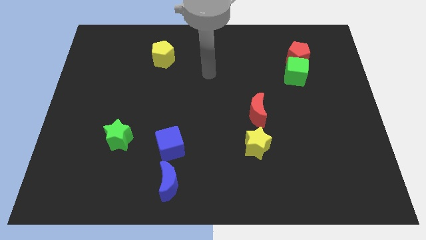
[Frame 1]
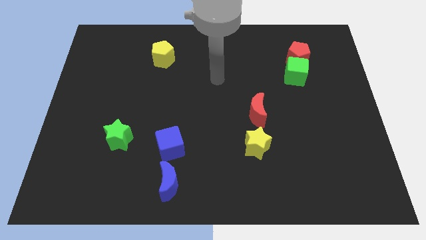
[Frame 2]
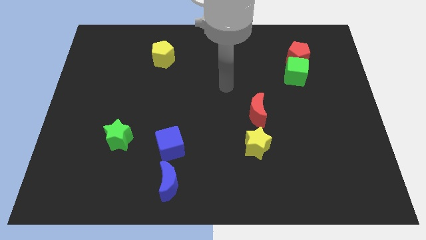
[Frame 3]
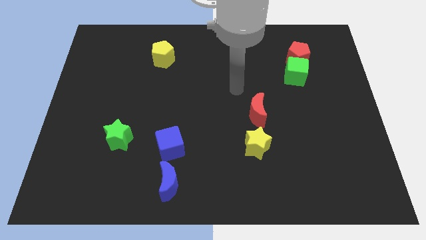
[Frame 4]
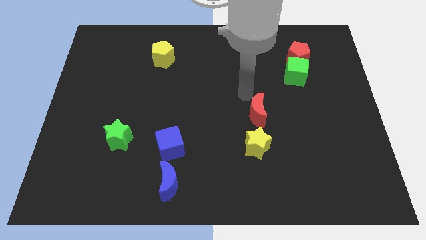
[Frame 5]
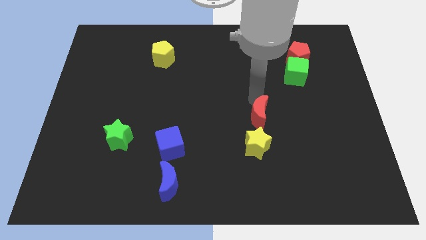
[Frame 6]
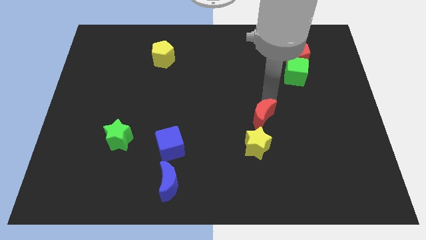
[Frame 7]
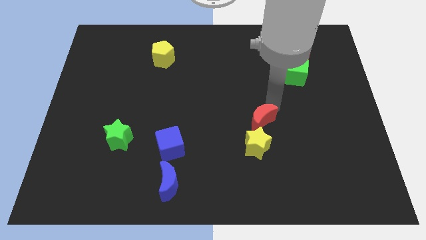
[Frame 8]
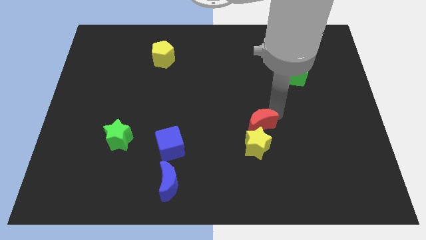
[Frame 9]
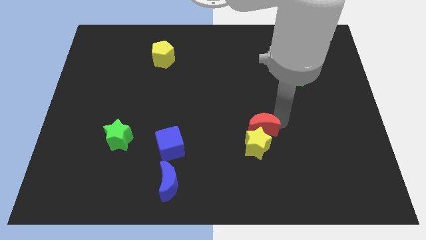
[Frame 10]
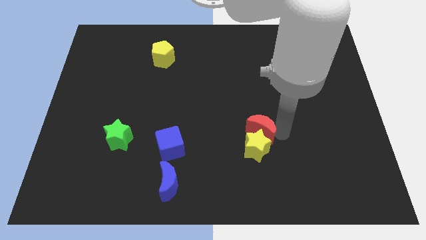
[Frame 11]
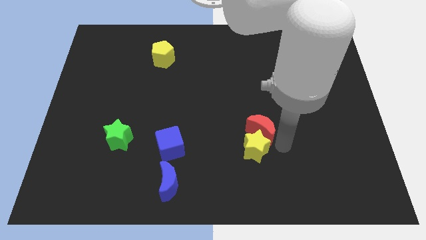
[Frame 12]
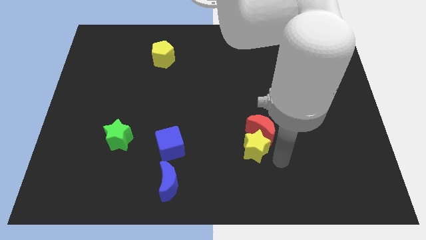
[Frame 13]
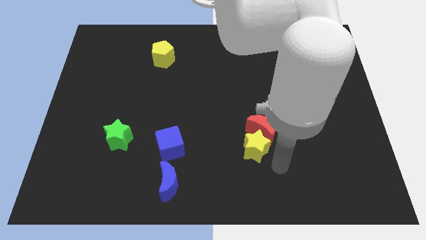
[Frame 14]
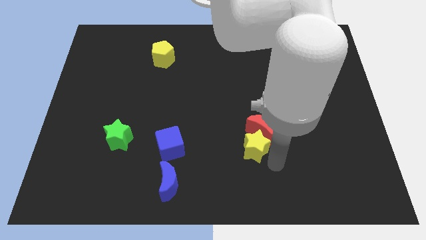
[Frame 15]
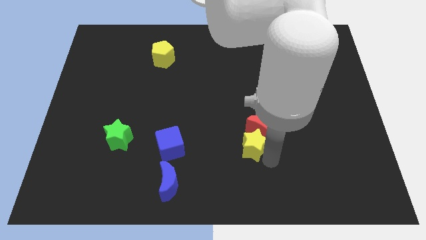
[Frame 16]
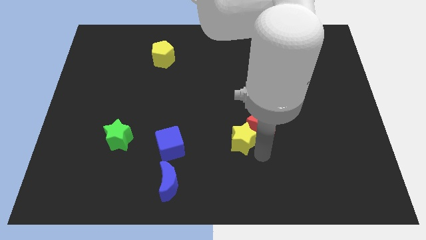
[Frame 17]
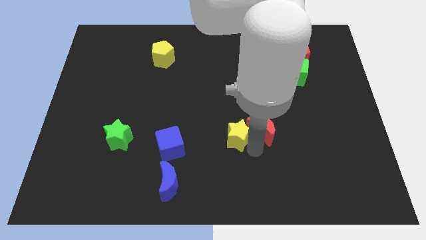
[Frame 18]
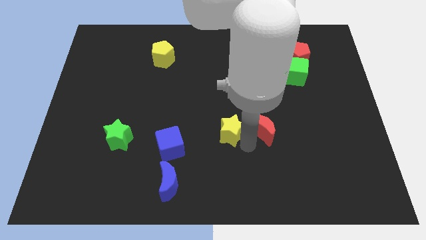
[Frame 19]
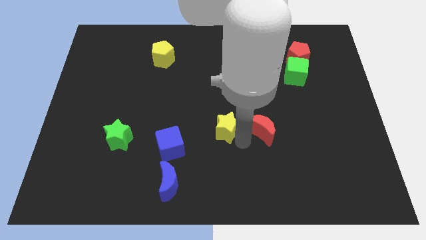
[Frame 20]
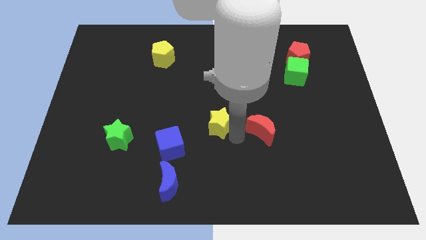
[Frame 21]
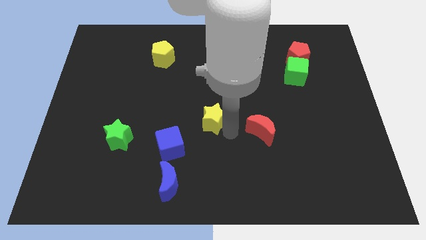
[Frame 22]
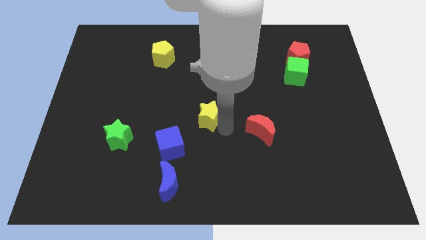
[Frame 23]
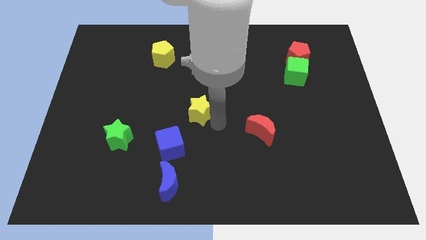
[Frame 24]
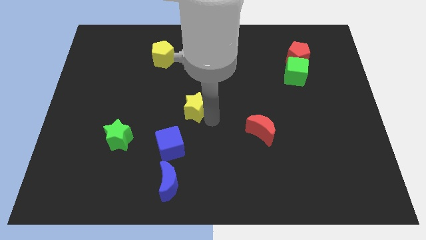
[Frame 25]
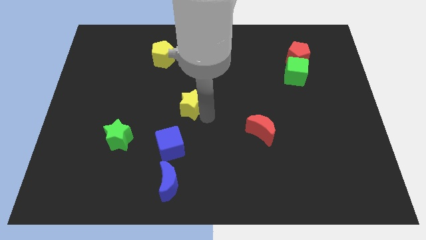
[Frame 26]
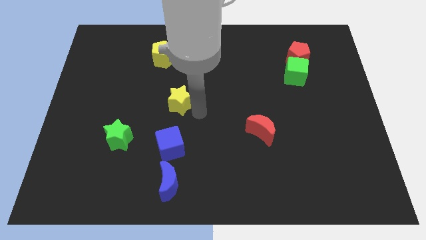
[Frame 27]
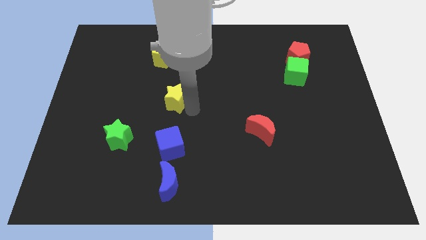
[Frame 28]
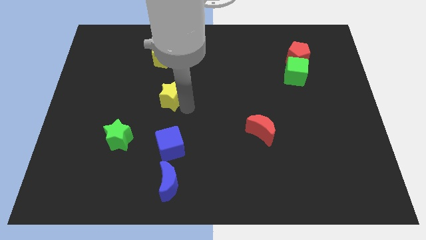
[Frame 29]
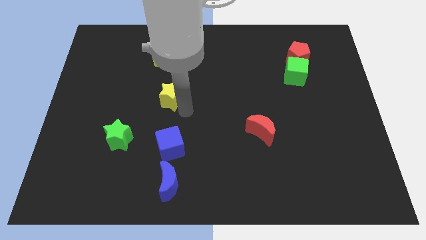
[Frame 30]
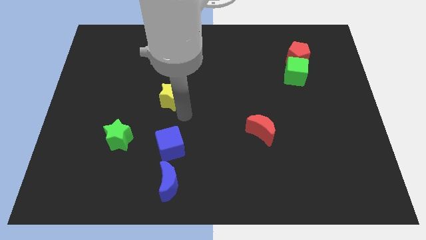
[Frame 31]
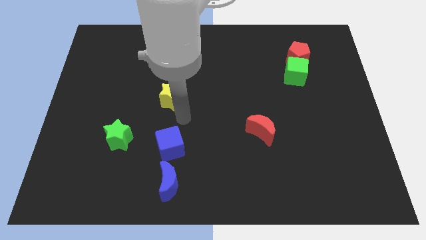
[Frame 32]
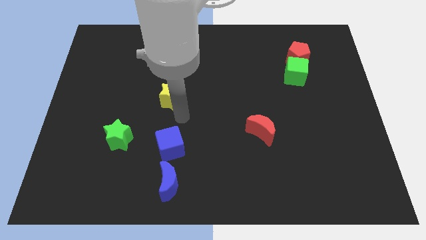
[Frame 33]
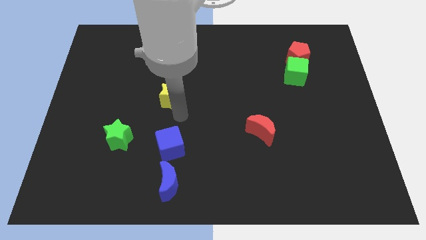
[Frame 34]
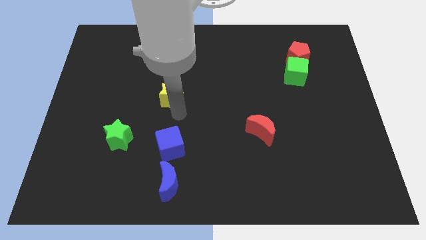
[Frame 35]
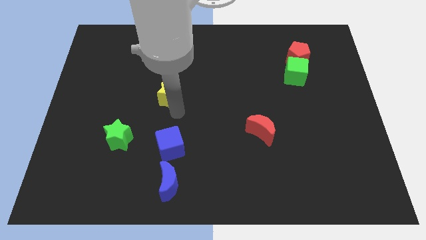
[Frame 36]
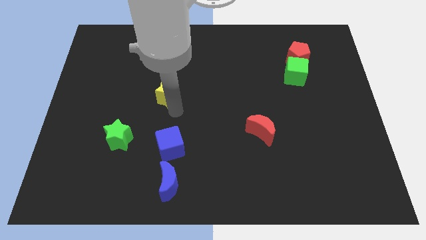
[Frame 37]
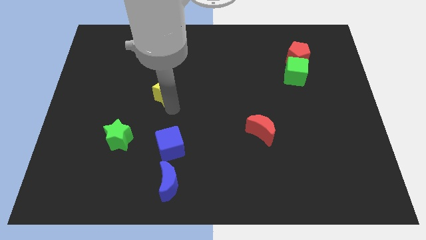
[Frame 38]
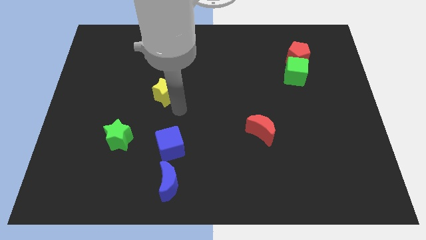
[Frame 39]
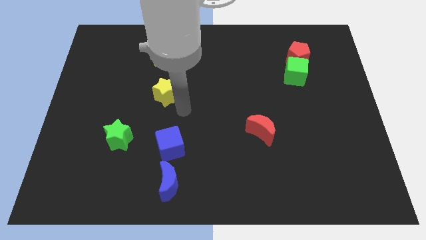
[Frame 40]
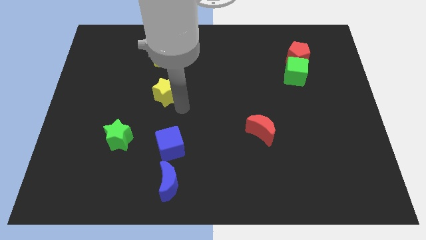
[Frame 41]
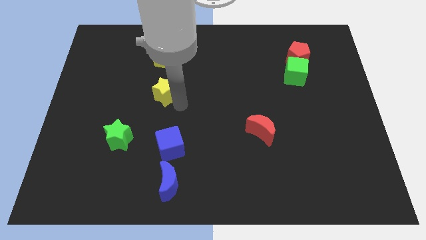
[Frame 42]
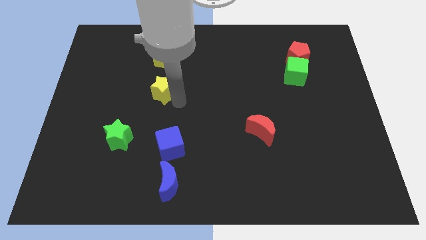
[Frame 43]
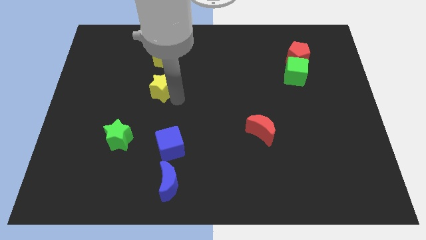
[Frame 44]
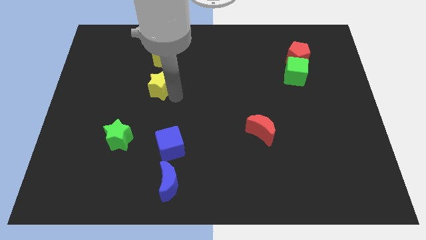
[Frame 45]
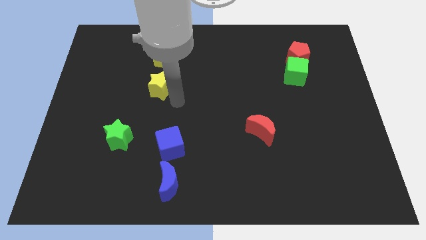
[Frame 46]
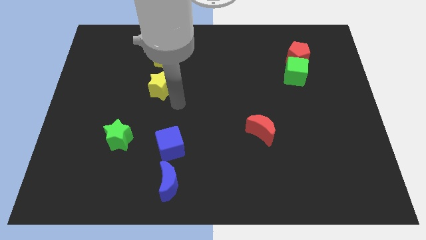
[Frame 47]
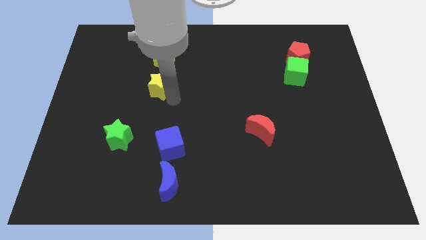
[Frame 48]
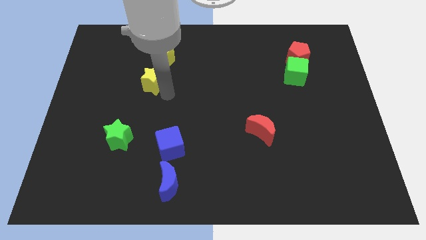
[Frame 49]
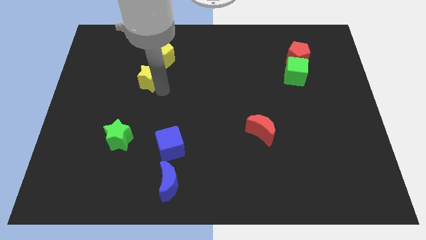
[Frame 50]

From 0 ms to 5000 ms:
push the yellow star to the bottom left side of the yellow pentagon

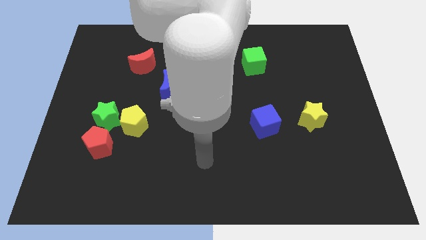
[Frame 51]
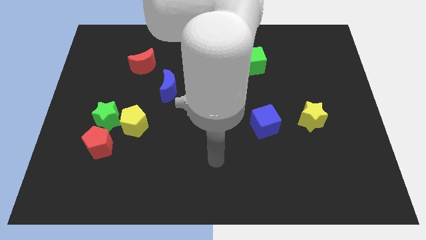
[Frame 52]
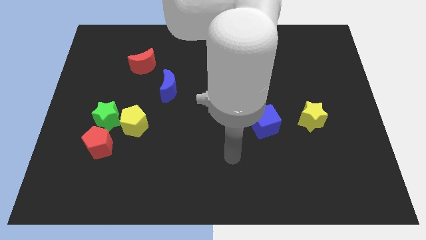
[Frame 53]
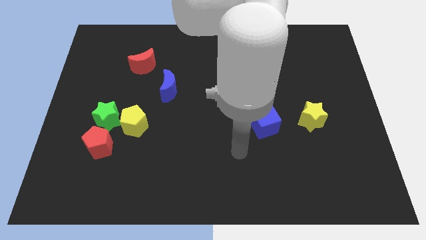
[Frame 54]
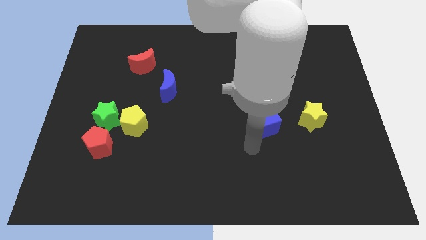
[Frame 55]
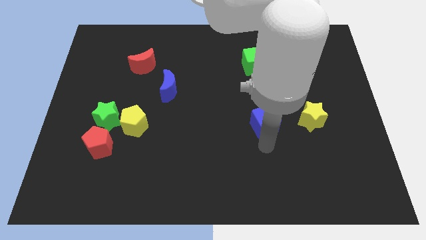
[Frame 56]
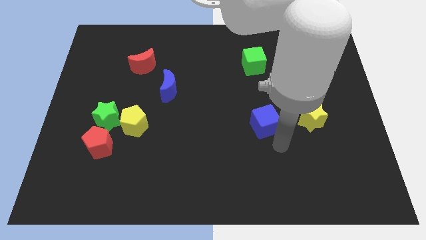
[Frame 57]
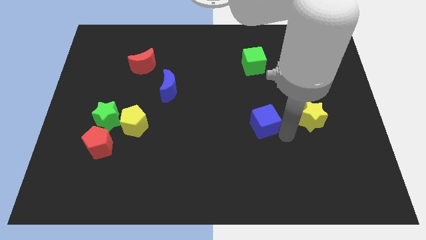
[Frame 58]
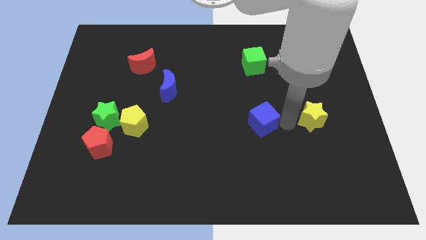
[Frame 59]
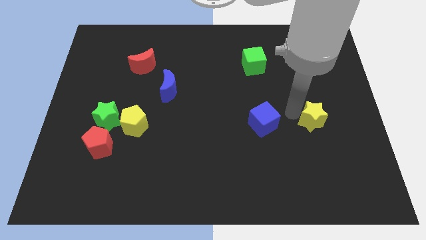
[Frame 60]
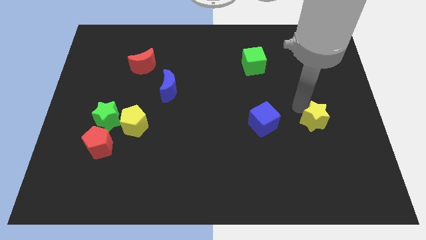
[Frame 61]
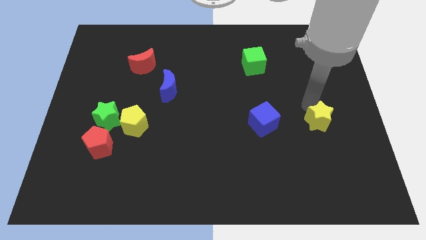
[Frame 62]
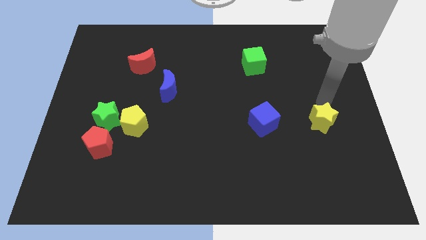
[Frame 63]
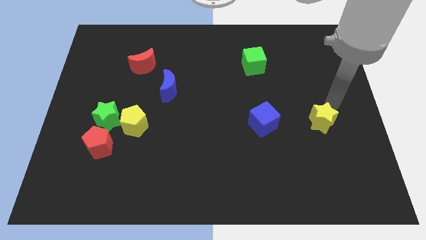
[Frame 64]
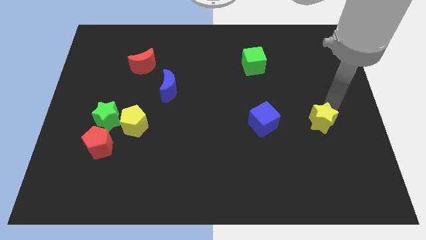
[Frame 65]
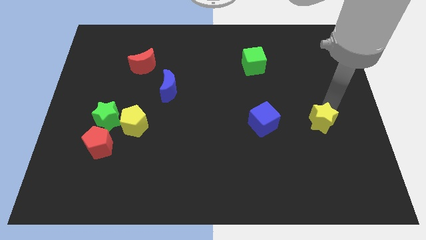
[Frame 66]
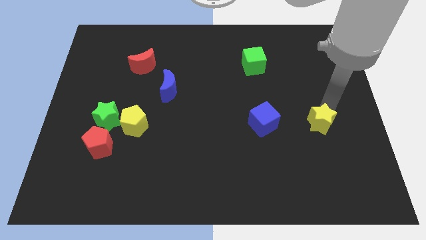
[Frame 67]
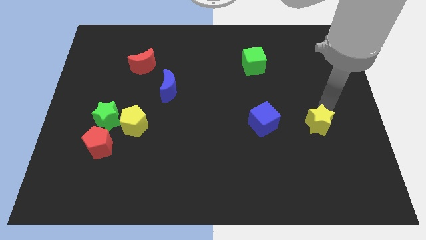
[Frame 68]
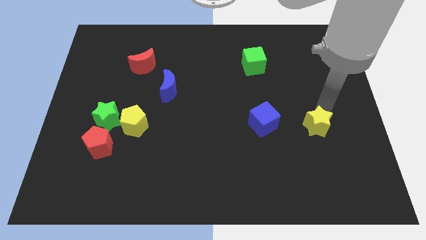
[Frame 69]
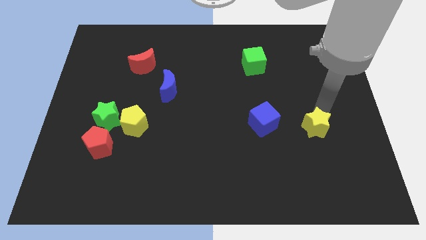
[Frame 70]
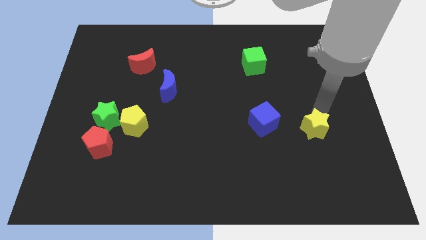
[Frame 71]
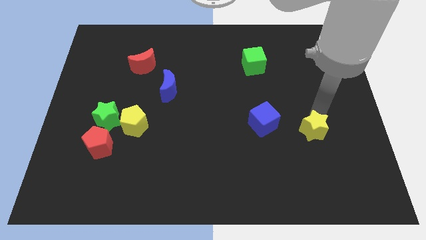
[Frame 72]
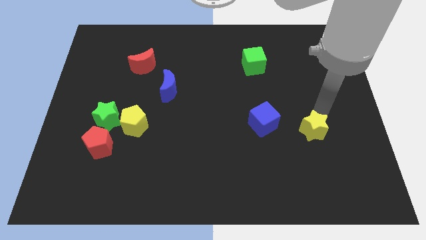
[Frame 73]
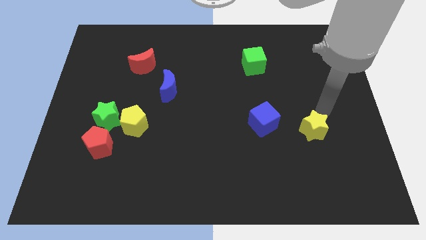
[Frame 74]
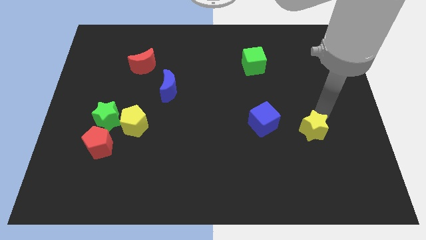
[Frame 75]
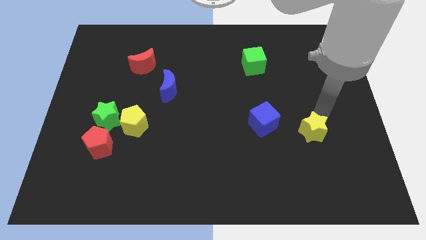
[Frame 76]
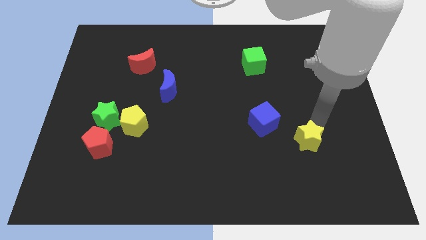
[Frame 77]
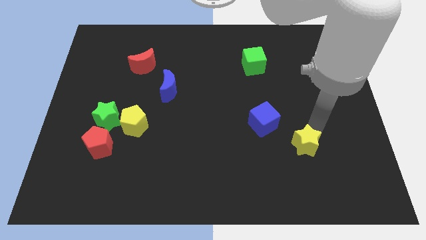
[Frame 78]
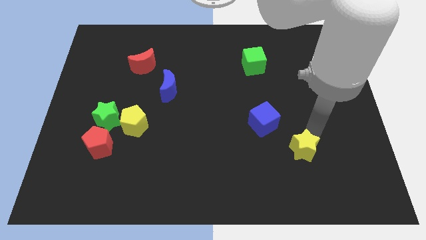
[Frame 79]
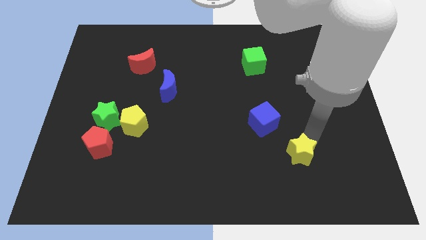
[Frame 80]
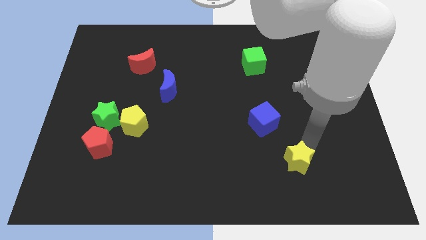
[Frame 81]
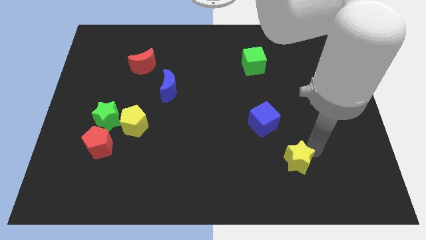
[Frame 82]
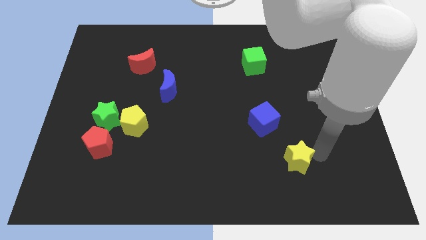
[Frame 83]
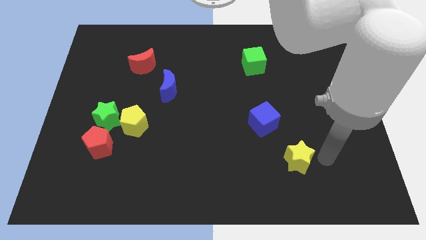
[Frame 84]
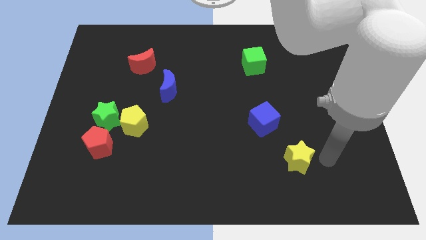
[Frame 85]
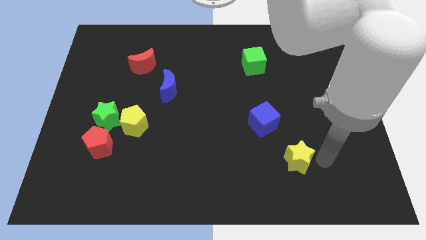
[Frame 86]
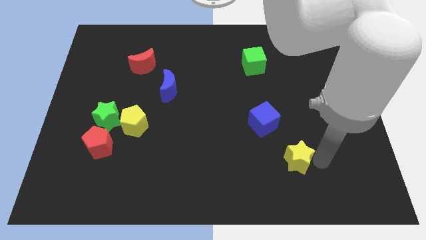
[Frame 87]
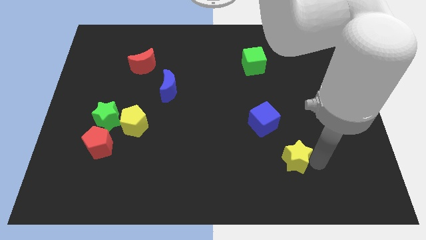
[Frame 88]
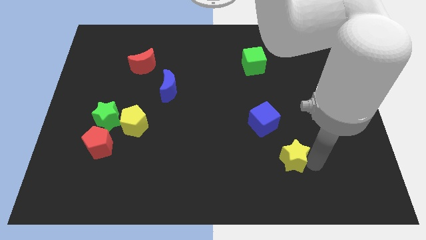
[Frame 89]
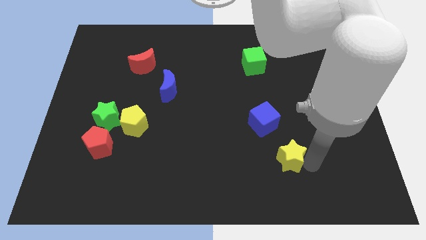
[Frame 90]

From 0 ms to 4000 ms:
move the yellow star to the bottom side of the blue cube
